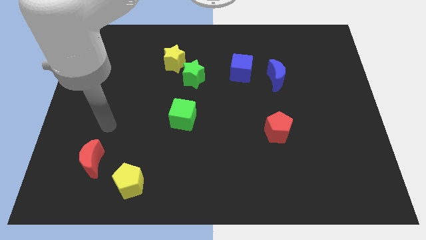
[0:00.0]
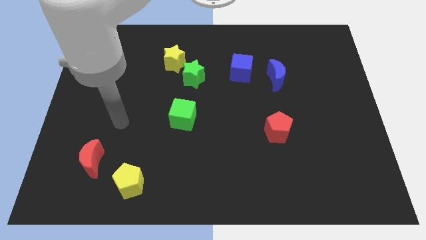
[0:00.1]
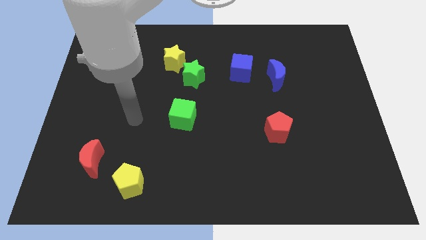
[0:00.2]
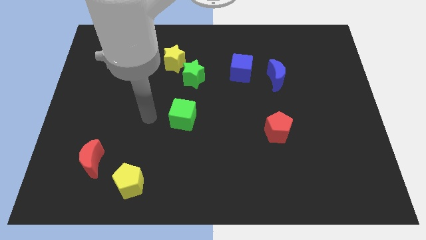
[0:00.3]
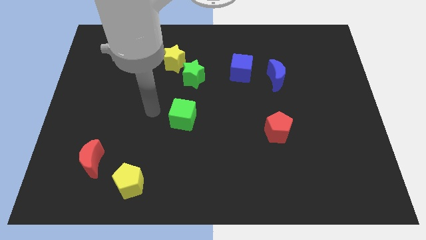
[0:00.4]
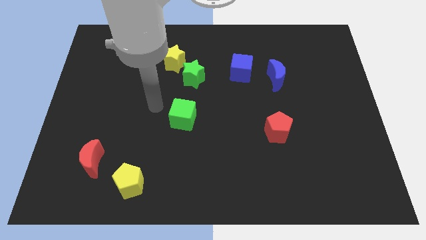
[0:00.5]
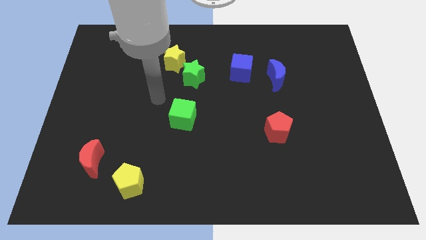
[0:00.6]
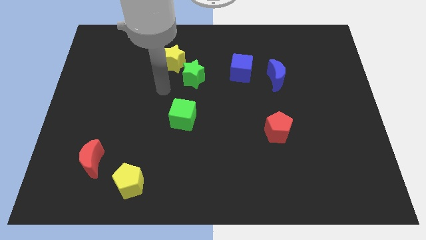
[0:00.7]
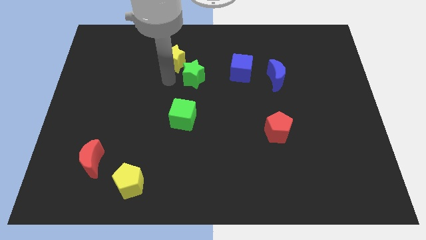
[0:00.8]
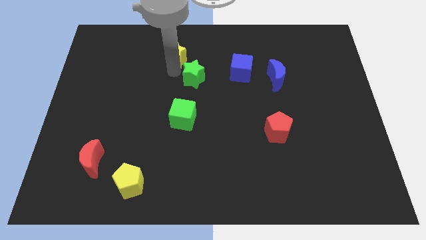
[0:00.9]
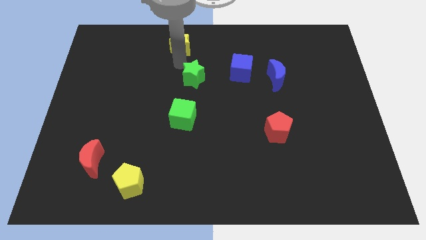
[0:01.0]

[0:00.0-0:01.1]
move the green star away from the yellow star

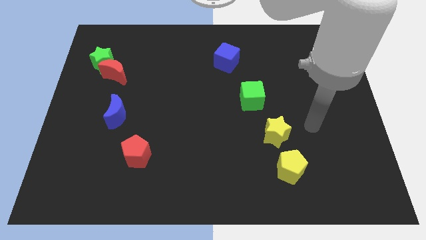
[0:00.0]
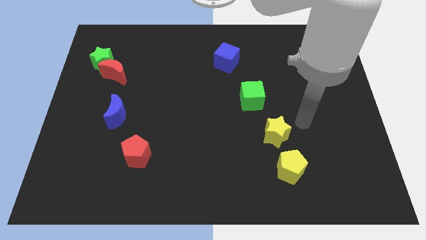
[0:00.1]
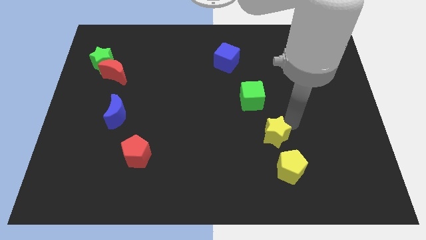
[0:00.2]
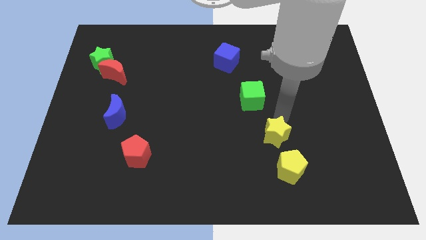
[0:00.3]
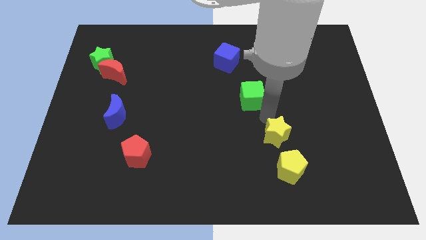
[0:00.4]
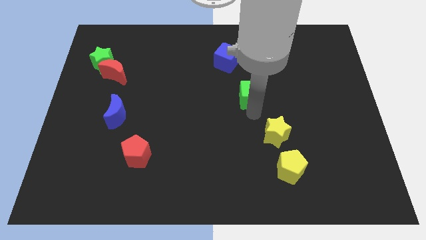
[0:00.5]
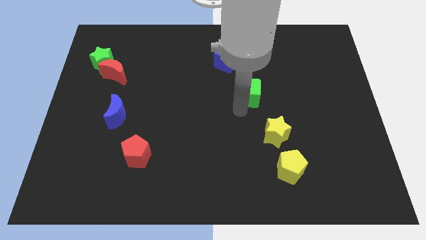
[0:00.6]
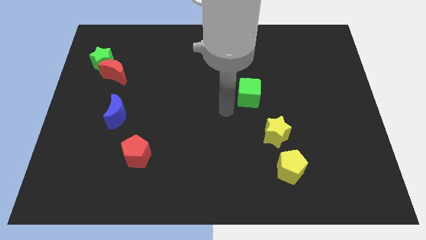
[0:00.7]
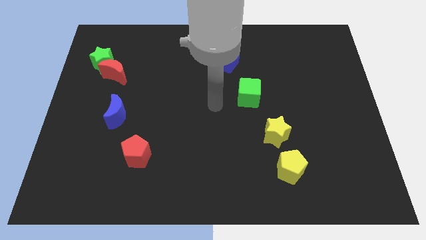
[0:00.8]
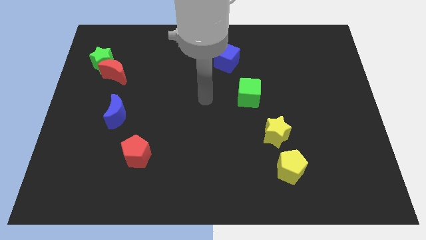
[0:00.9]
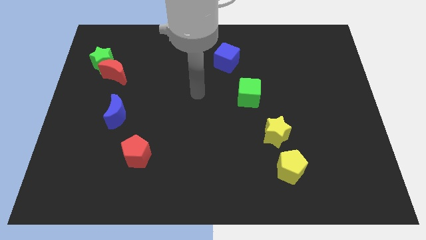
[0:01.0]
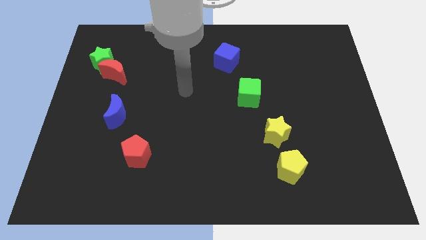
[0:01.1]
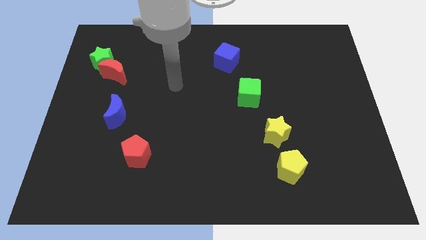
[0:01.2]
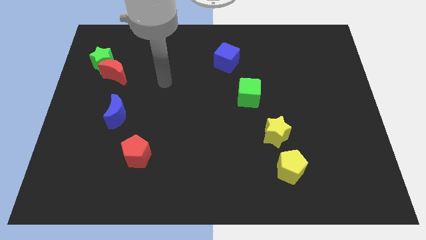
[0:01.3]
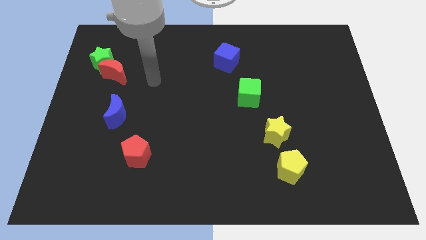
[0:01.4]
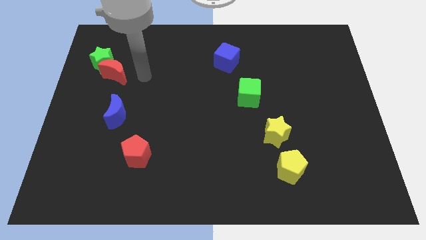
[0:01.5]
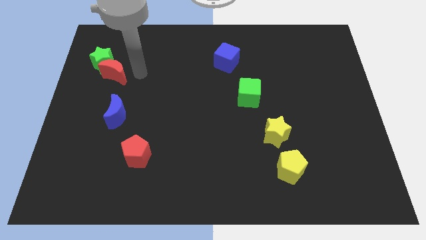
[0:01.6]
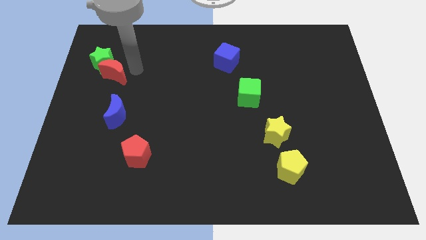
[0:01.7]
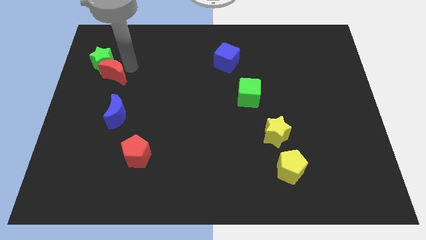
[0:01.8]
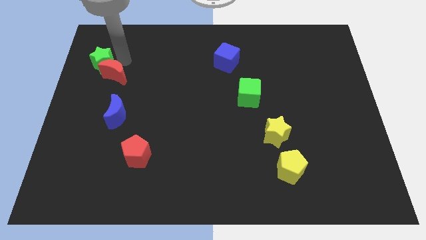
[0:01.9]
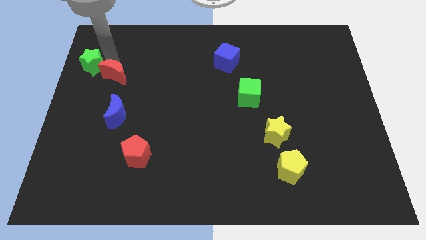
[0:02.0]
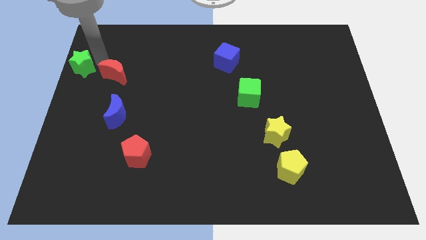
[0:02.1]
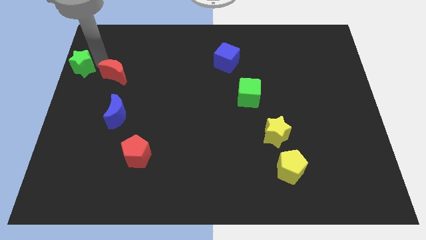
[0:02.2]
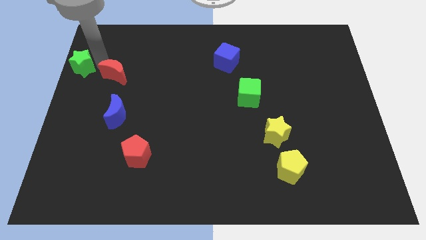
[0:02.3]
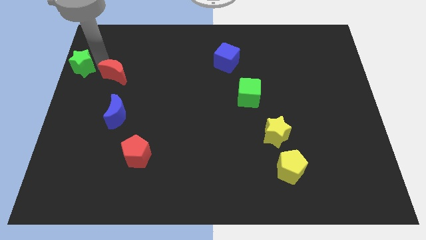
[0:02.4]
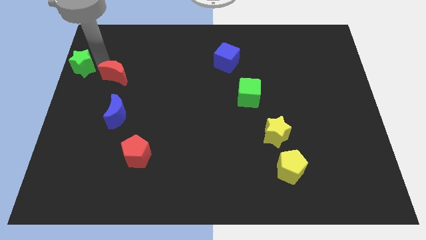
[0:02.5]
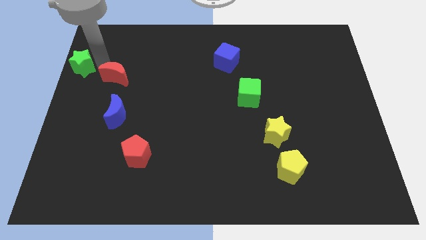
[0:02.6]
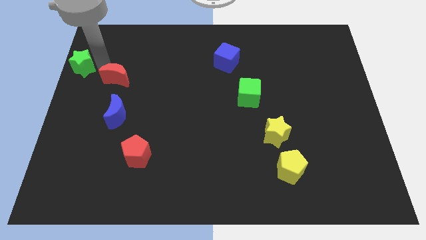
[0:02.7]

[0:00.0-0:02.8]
separate the red moon from the green star

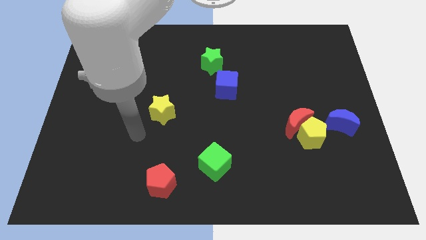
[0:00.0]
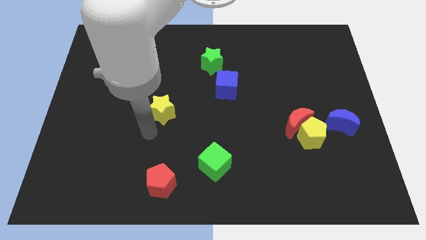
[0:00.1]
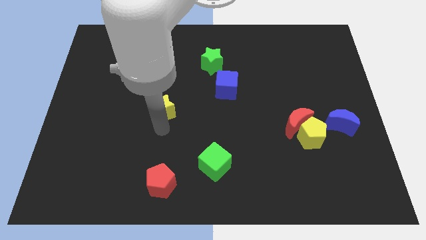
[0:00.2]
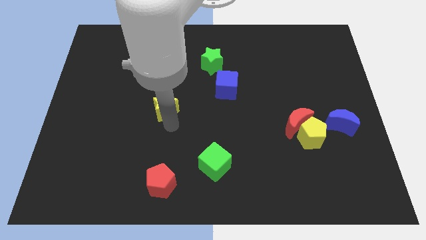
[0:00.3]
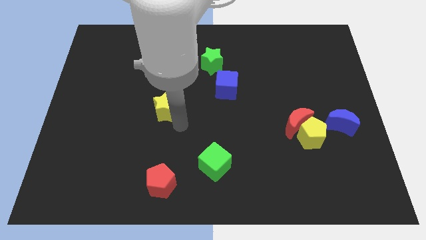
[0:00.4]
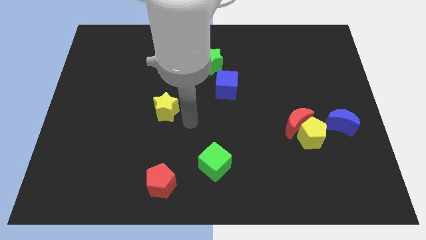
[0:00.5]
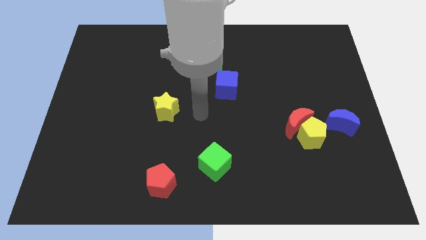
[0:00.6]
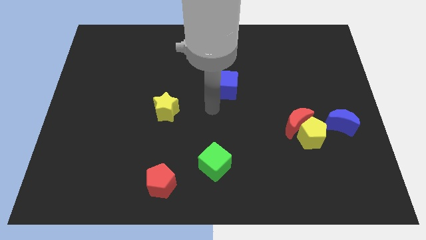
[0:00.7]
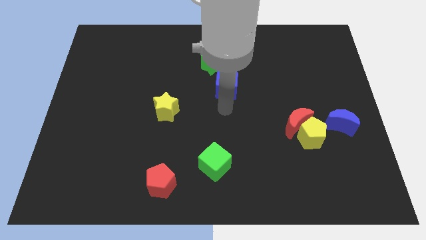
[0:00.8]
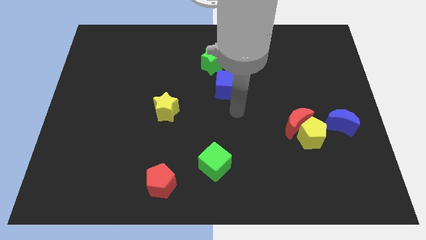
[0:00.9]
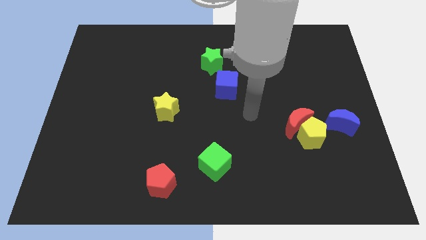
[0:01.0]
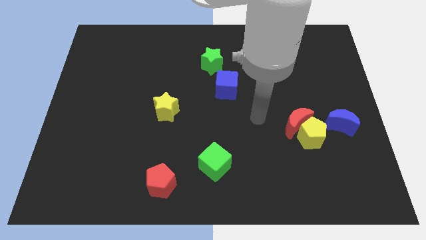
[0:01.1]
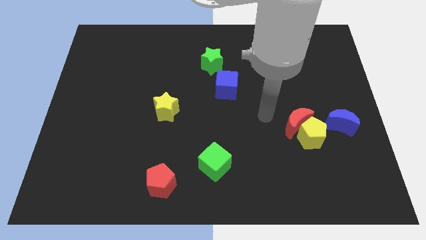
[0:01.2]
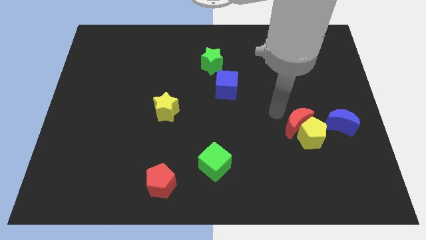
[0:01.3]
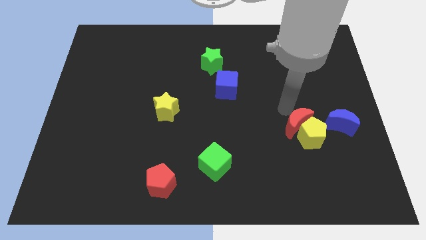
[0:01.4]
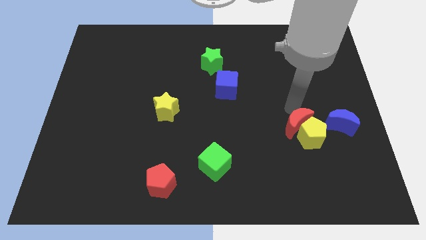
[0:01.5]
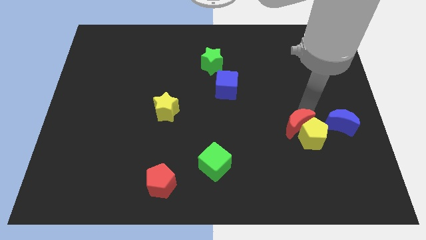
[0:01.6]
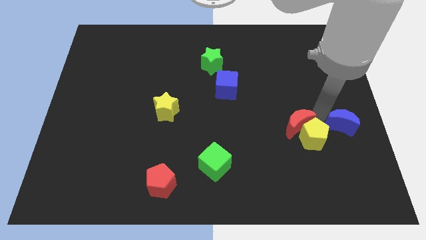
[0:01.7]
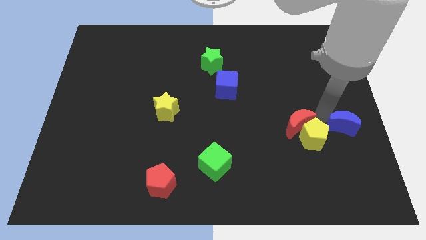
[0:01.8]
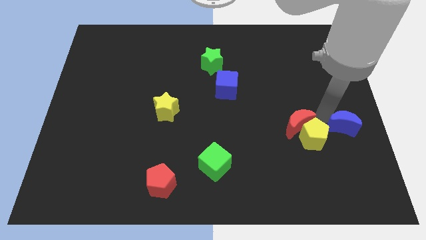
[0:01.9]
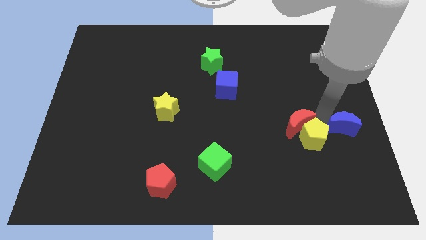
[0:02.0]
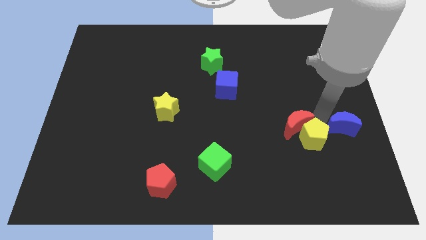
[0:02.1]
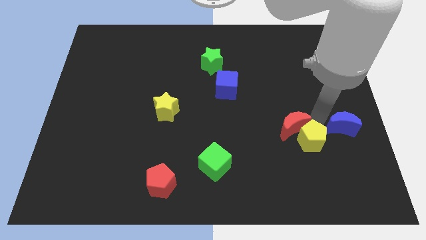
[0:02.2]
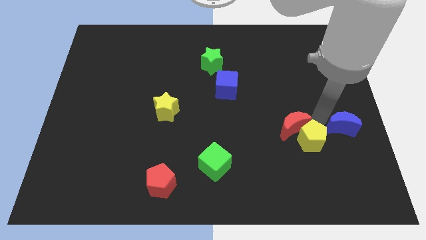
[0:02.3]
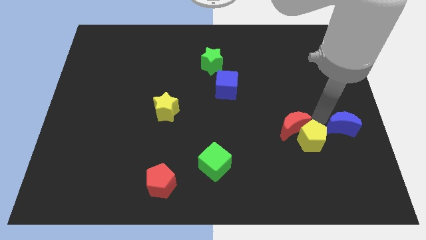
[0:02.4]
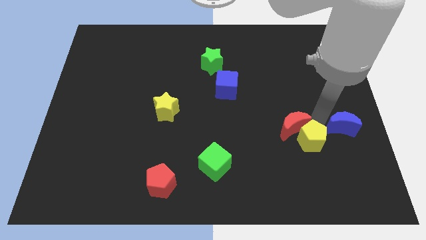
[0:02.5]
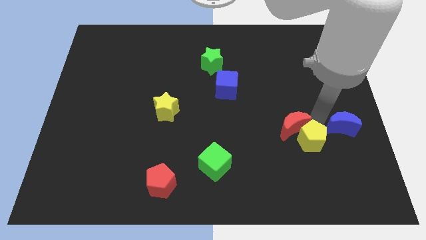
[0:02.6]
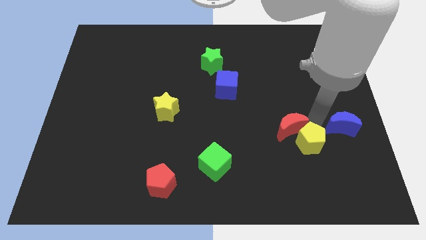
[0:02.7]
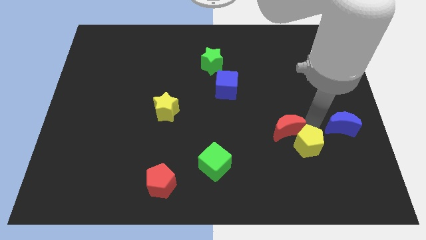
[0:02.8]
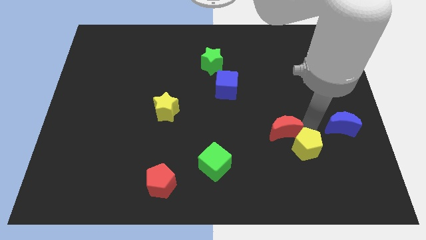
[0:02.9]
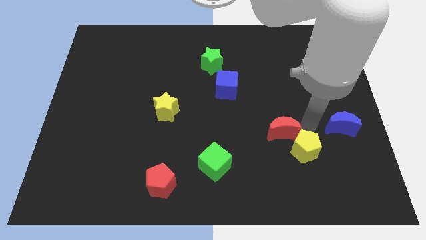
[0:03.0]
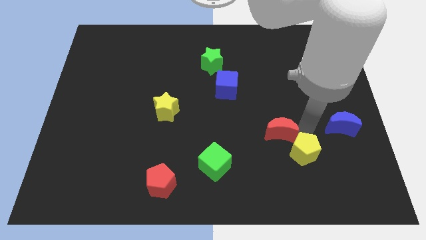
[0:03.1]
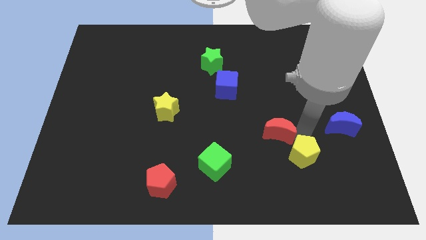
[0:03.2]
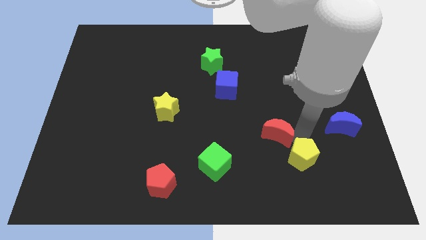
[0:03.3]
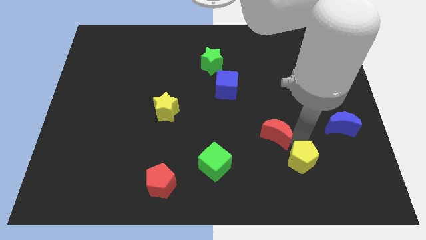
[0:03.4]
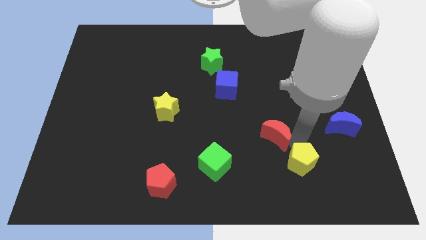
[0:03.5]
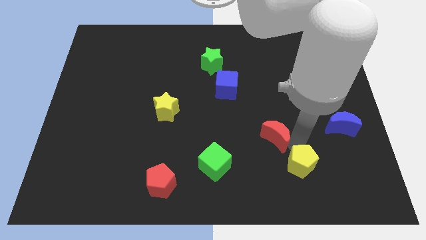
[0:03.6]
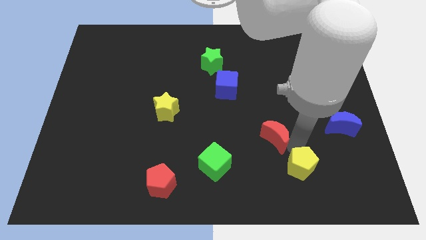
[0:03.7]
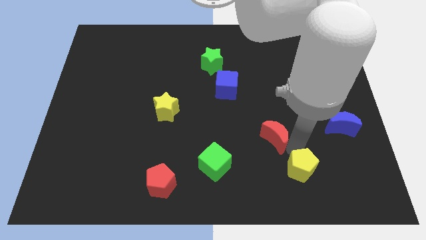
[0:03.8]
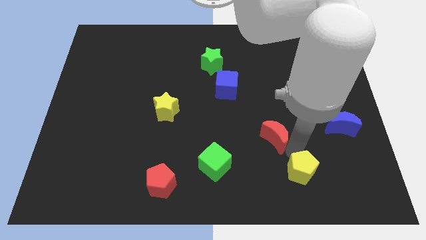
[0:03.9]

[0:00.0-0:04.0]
move the yellow pentagon away from the red moon and blue moon

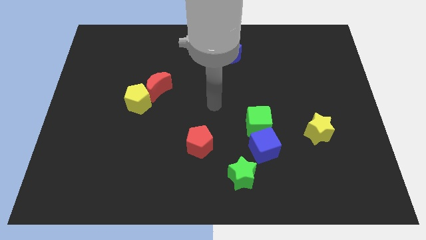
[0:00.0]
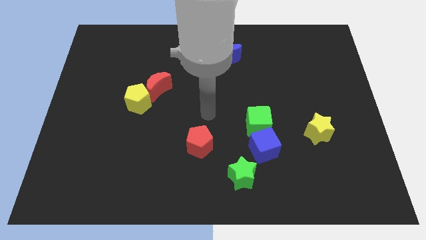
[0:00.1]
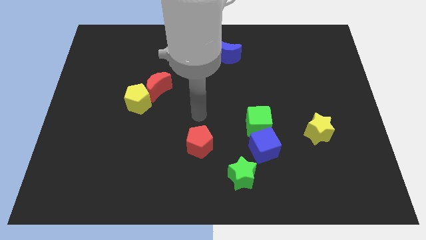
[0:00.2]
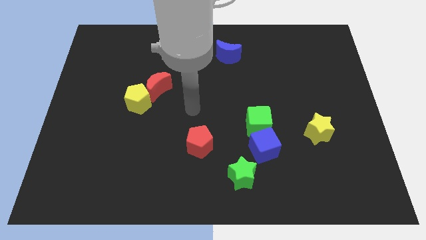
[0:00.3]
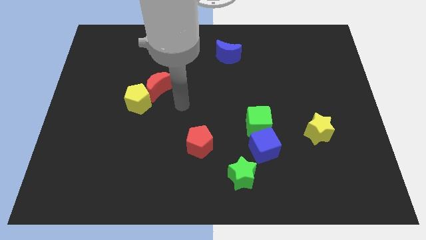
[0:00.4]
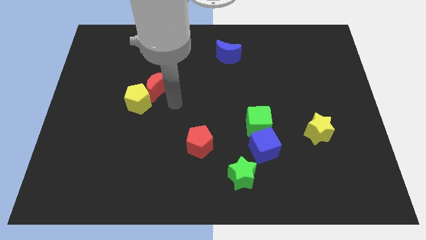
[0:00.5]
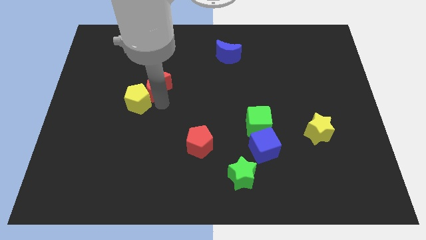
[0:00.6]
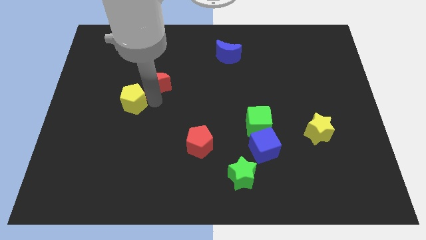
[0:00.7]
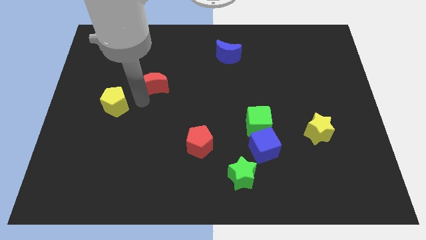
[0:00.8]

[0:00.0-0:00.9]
pull the red moon apart from the yellow pentagon

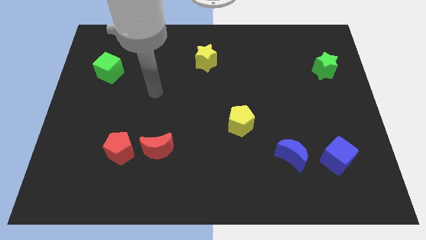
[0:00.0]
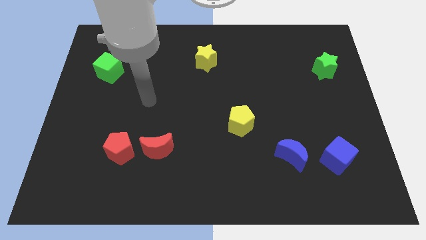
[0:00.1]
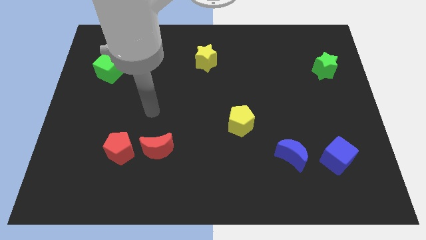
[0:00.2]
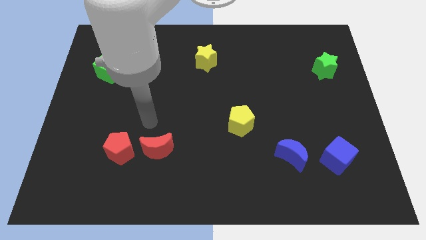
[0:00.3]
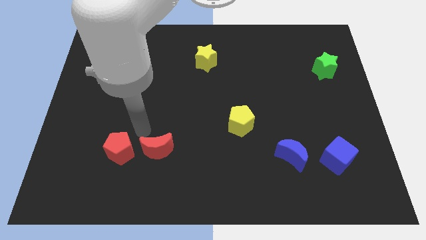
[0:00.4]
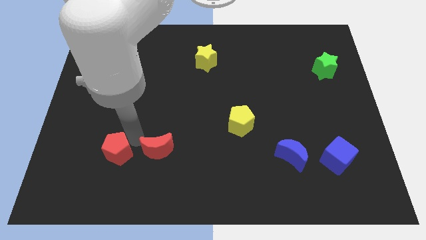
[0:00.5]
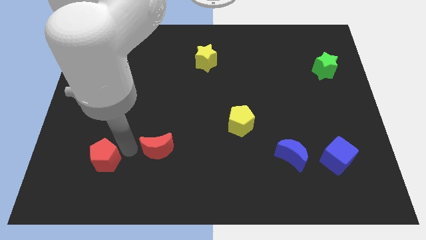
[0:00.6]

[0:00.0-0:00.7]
move the red moon away from the red pentagon
